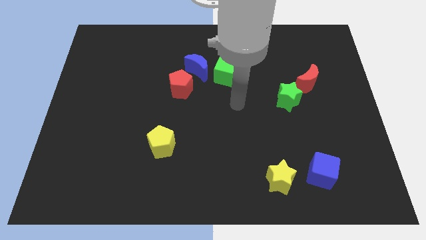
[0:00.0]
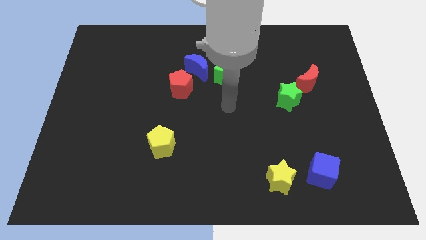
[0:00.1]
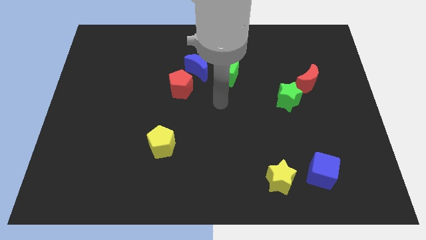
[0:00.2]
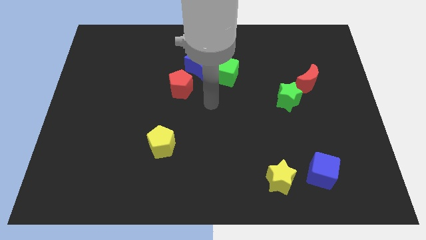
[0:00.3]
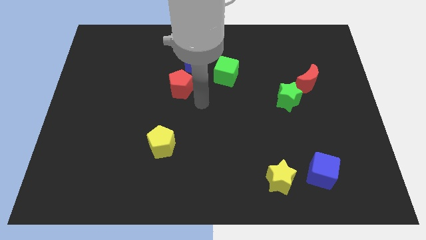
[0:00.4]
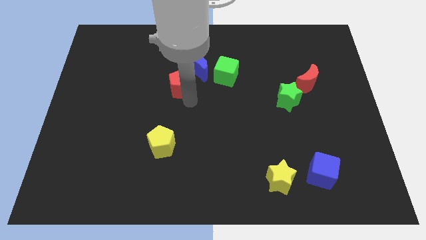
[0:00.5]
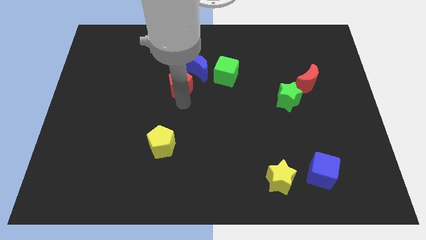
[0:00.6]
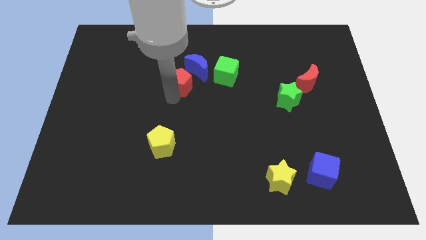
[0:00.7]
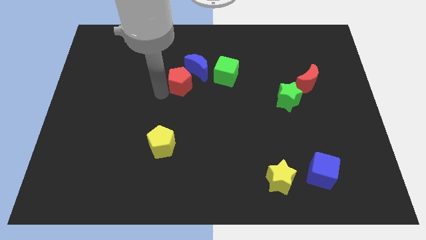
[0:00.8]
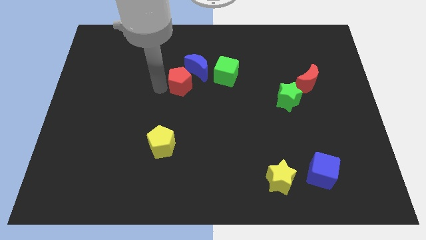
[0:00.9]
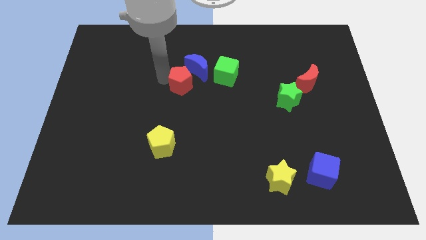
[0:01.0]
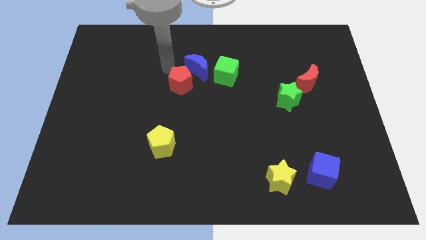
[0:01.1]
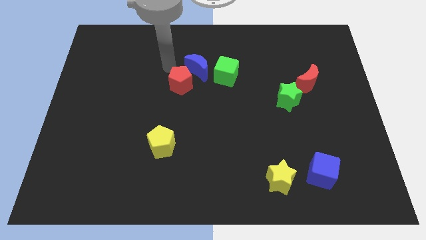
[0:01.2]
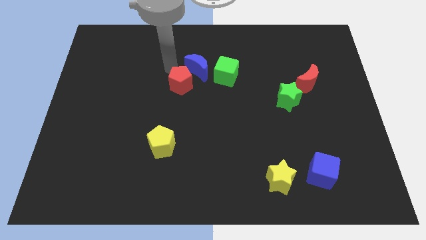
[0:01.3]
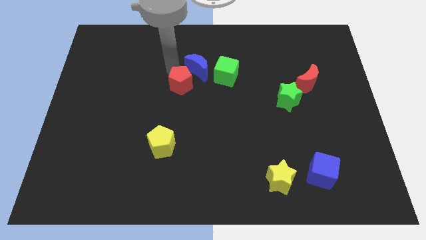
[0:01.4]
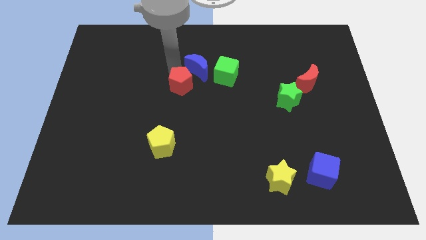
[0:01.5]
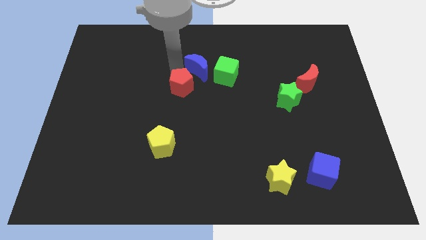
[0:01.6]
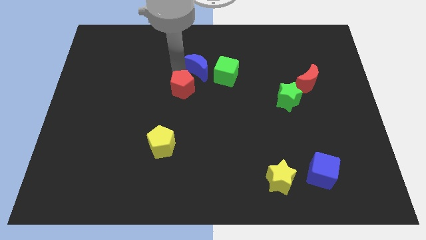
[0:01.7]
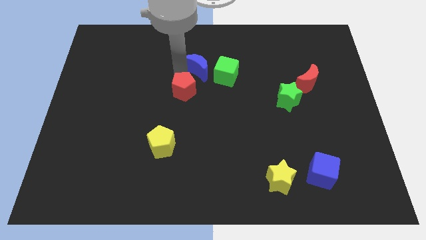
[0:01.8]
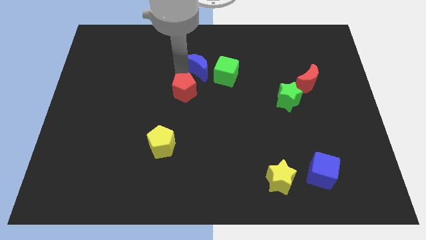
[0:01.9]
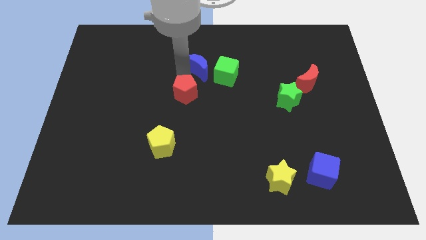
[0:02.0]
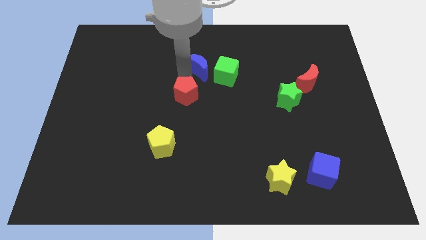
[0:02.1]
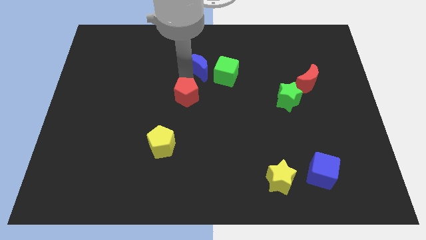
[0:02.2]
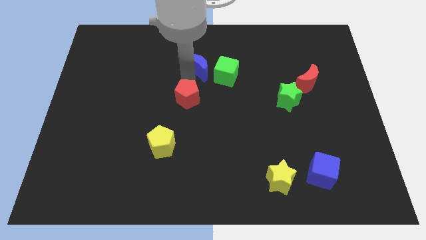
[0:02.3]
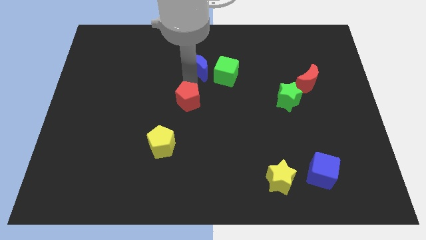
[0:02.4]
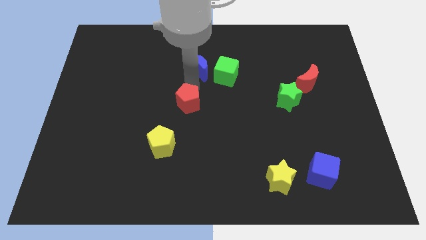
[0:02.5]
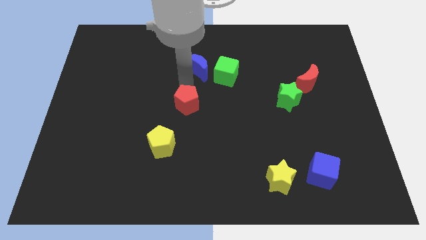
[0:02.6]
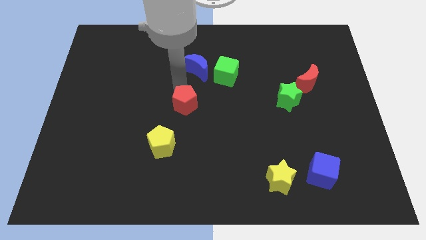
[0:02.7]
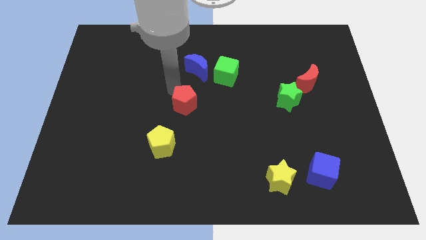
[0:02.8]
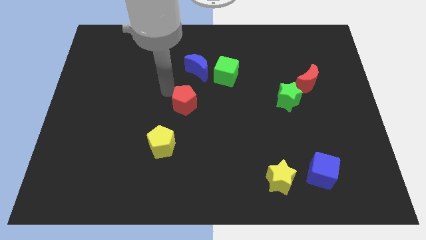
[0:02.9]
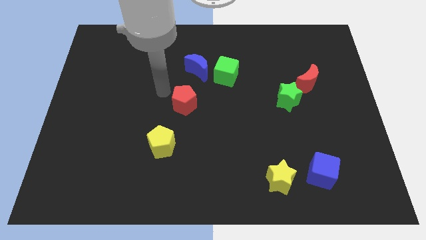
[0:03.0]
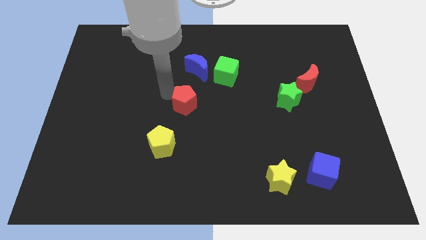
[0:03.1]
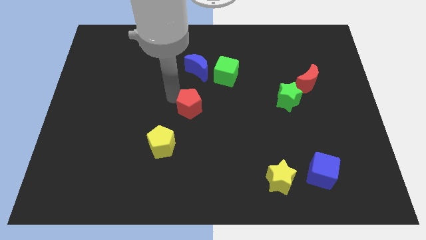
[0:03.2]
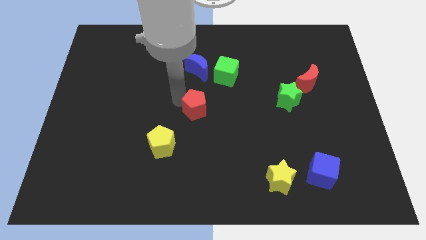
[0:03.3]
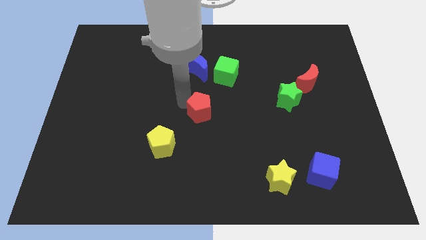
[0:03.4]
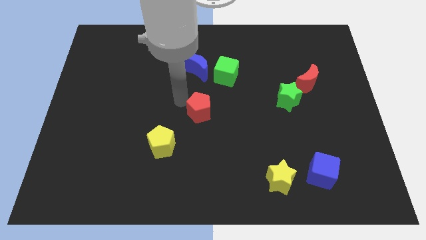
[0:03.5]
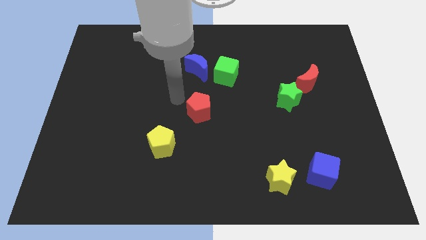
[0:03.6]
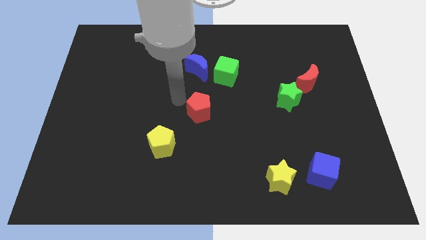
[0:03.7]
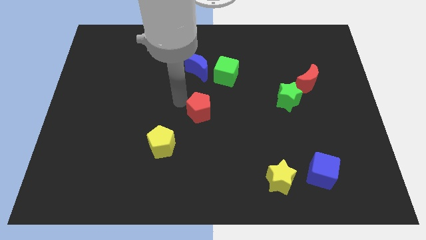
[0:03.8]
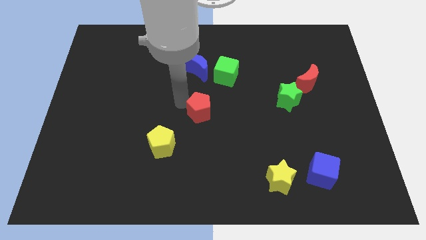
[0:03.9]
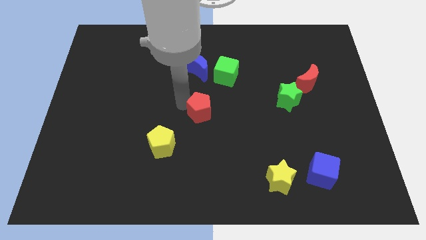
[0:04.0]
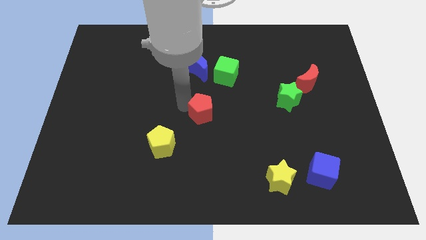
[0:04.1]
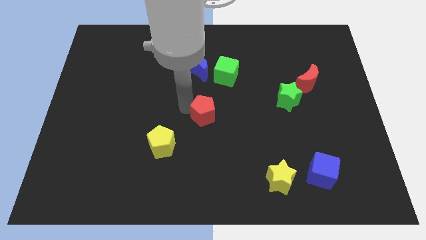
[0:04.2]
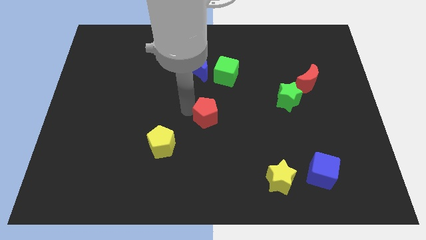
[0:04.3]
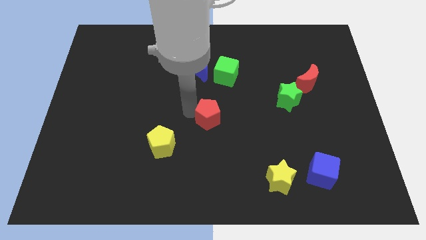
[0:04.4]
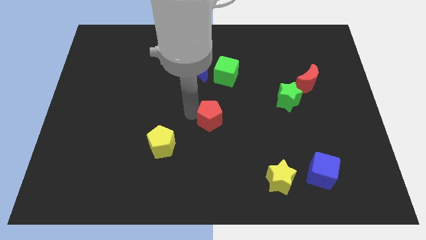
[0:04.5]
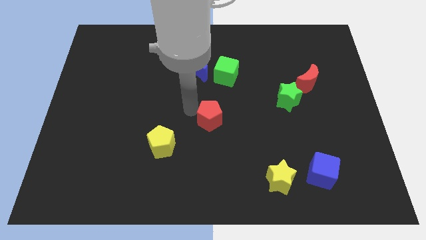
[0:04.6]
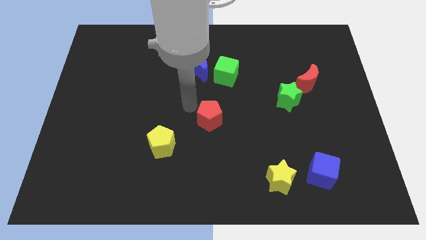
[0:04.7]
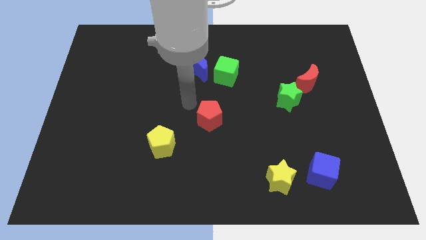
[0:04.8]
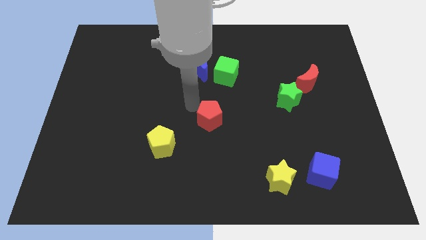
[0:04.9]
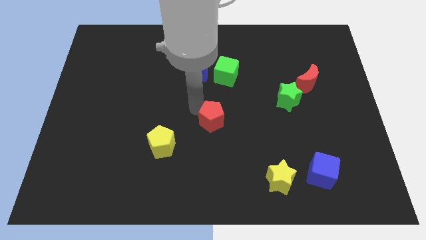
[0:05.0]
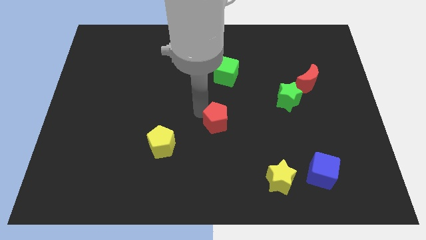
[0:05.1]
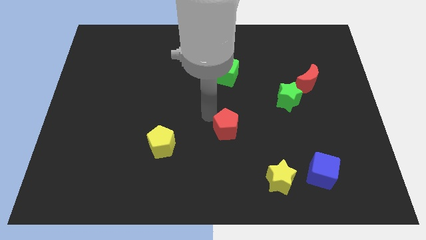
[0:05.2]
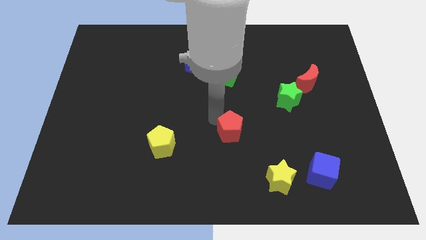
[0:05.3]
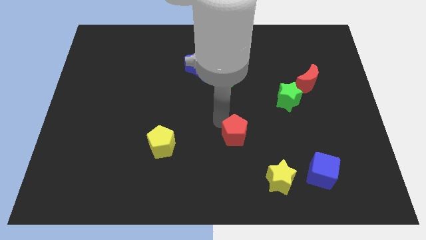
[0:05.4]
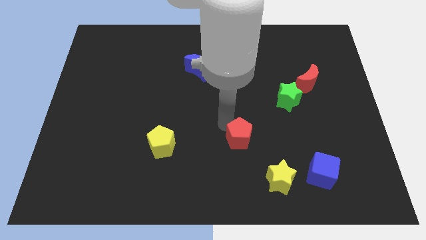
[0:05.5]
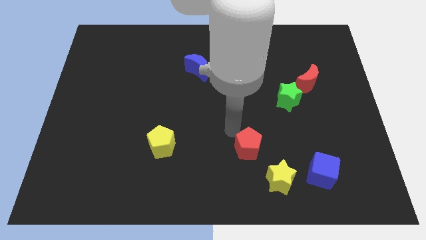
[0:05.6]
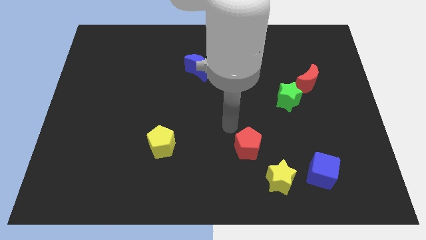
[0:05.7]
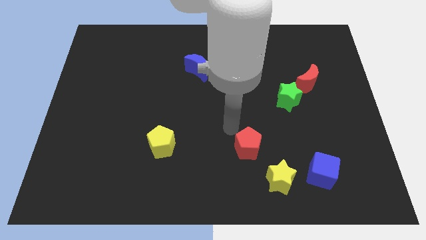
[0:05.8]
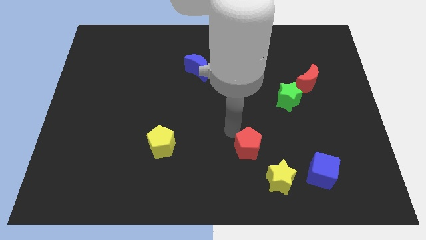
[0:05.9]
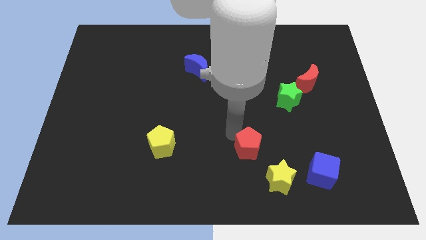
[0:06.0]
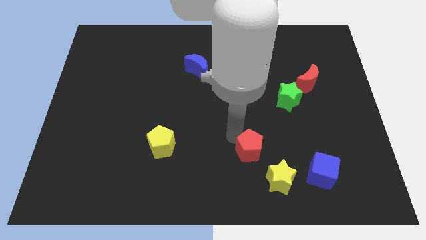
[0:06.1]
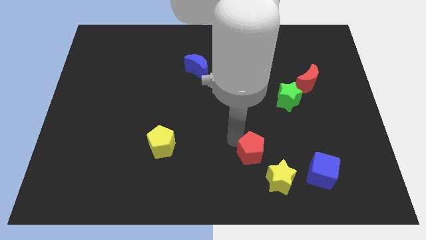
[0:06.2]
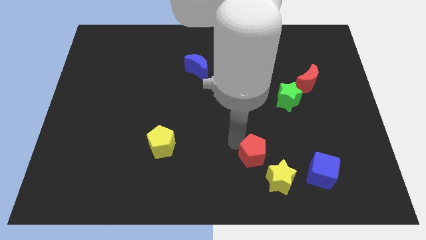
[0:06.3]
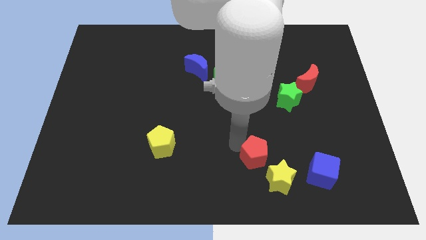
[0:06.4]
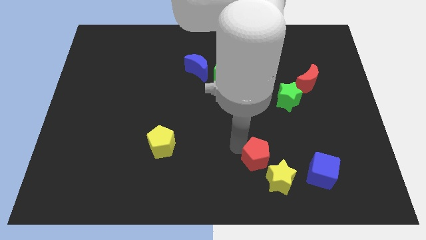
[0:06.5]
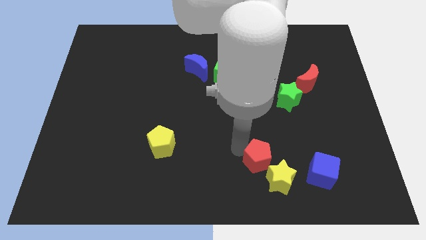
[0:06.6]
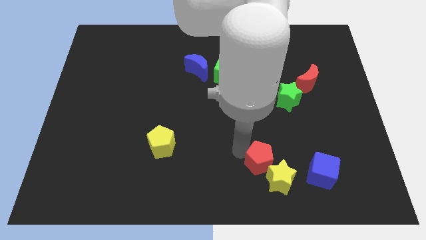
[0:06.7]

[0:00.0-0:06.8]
move the red pentagon to the yellow star
